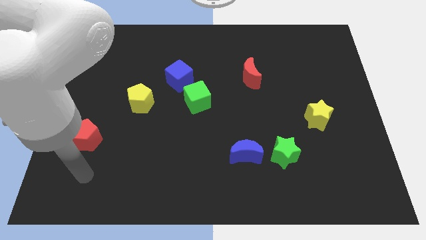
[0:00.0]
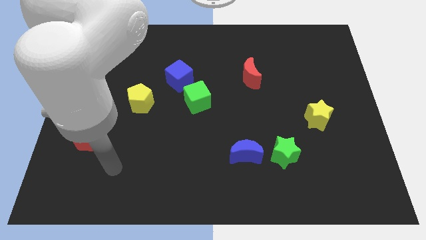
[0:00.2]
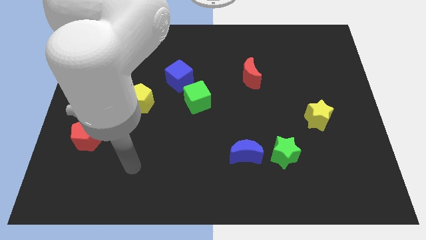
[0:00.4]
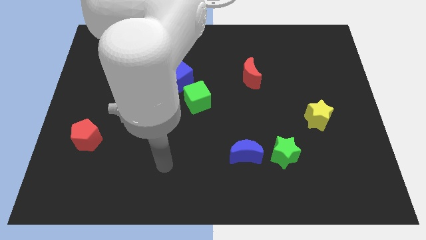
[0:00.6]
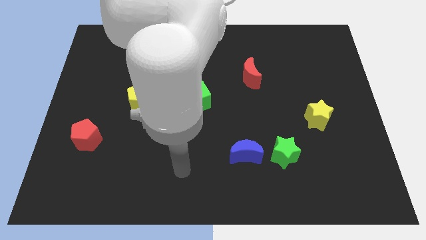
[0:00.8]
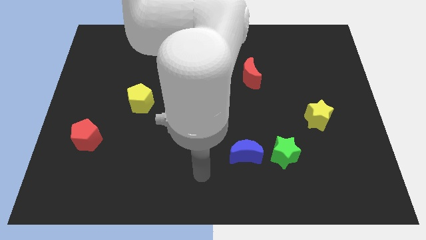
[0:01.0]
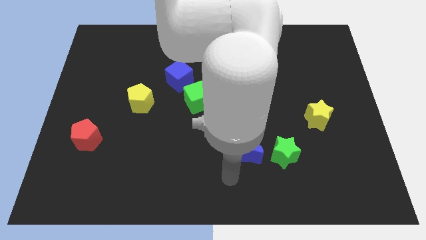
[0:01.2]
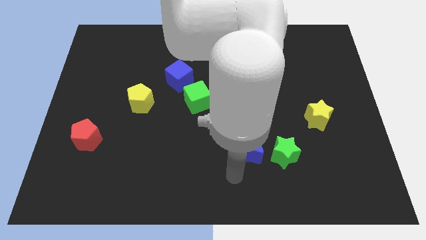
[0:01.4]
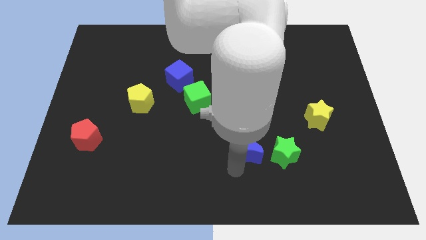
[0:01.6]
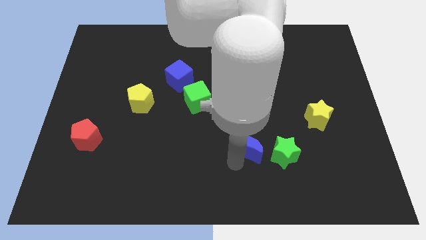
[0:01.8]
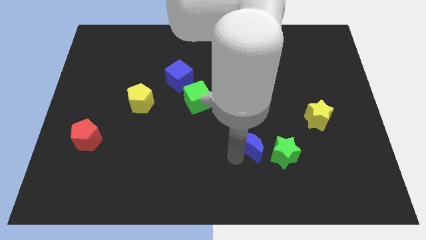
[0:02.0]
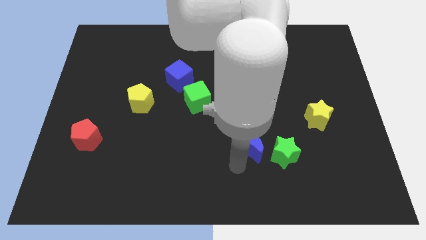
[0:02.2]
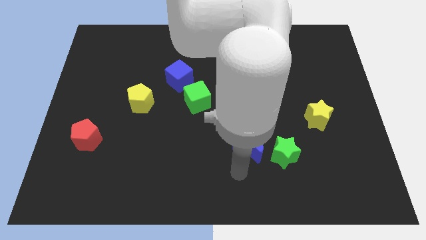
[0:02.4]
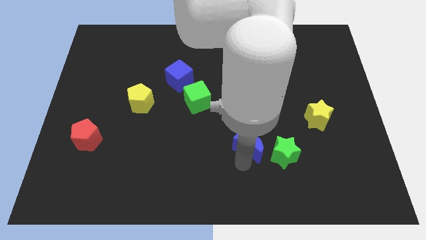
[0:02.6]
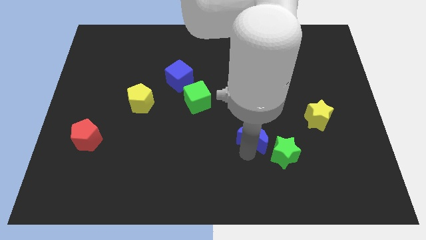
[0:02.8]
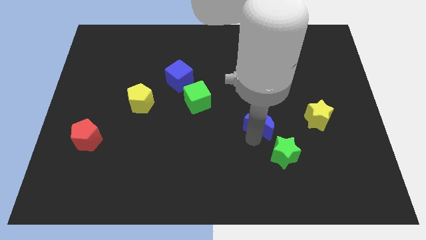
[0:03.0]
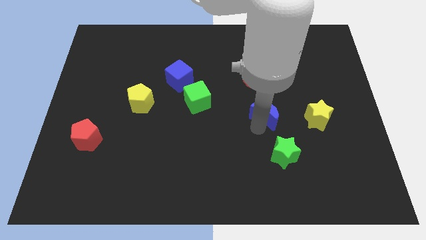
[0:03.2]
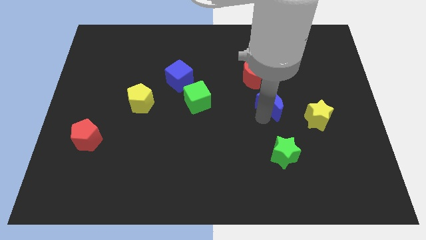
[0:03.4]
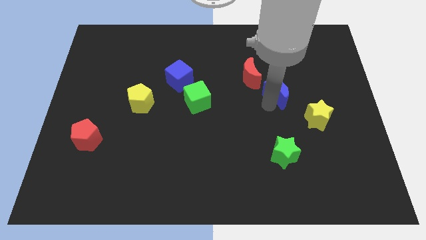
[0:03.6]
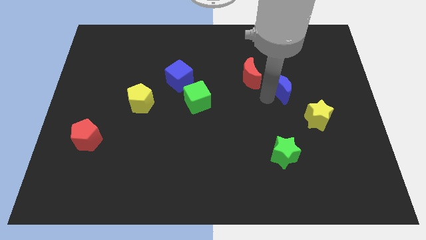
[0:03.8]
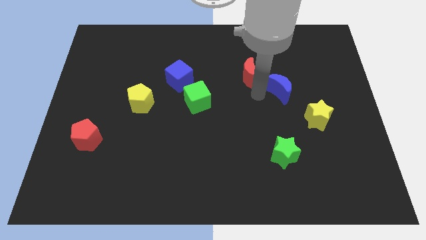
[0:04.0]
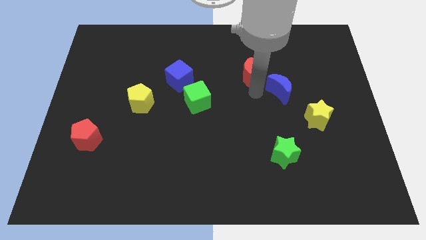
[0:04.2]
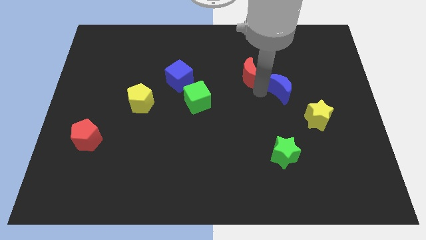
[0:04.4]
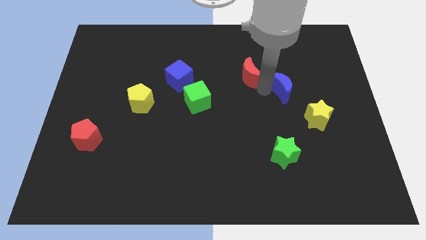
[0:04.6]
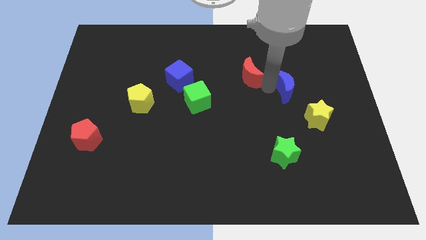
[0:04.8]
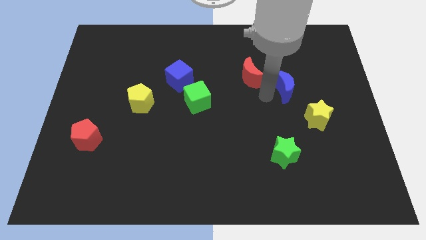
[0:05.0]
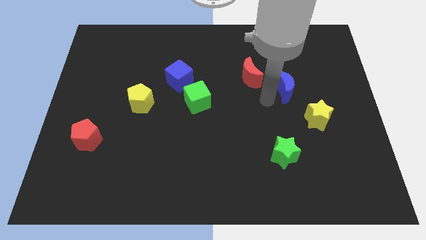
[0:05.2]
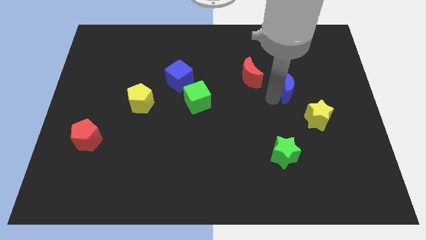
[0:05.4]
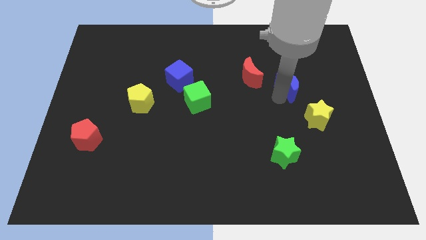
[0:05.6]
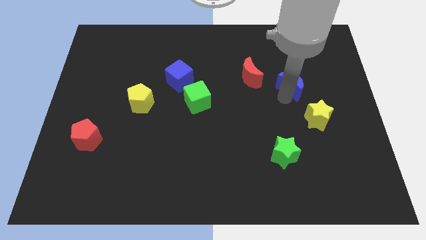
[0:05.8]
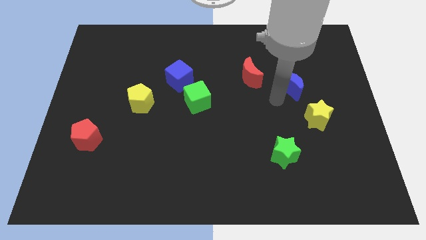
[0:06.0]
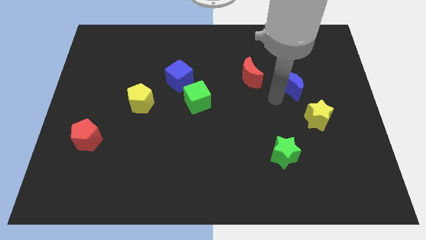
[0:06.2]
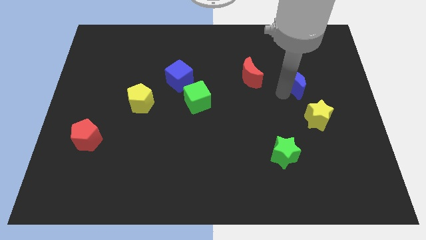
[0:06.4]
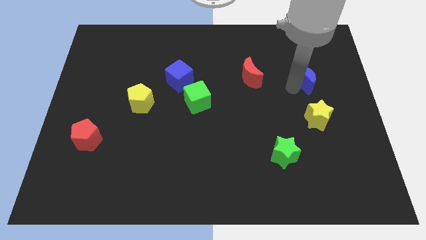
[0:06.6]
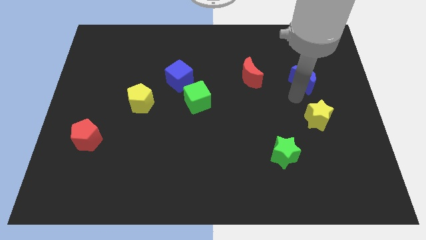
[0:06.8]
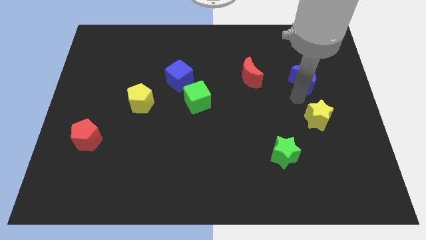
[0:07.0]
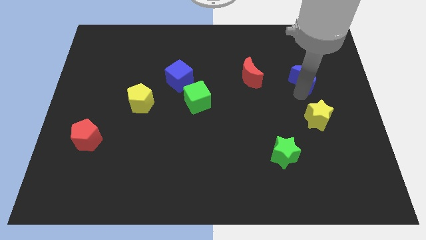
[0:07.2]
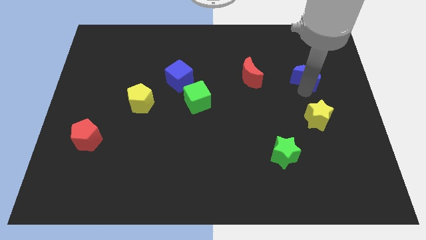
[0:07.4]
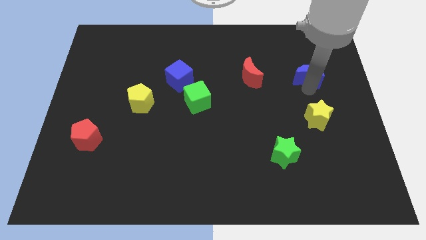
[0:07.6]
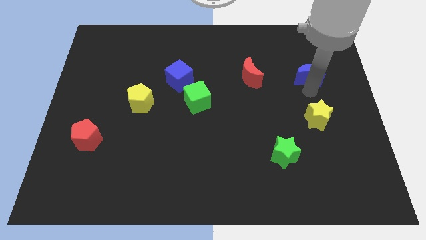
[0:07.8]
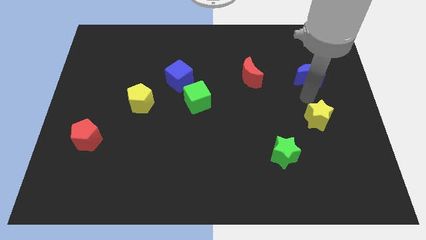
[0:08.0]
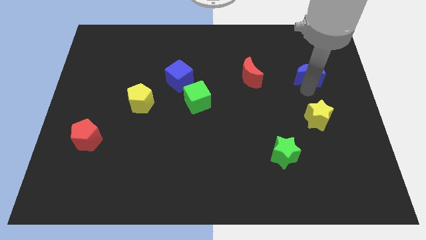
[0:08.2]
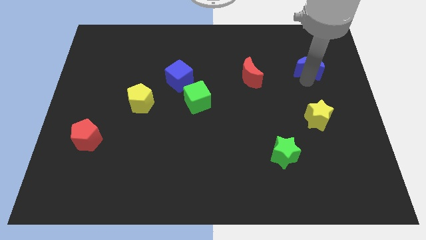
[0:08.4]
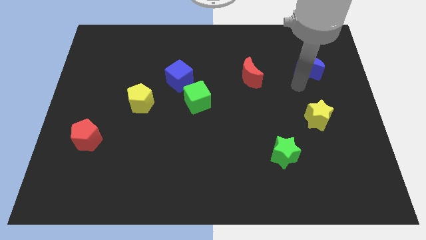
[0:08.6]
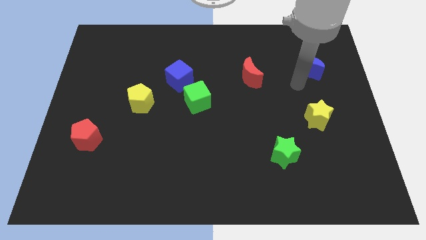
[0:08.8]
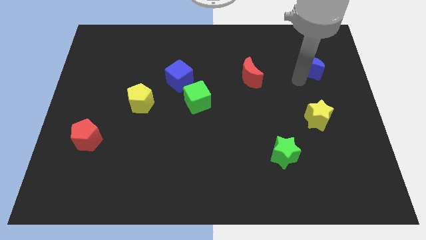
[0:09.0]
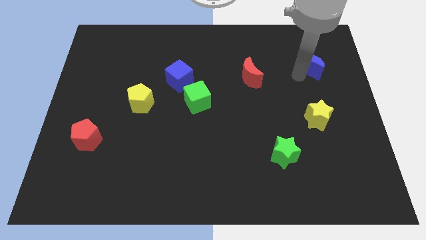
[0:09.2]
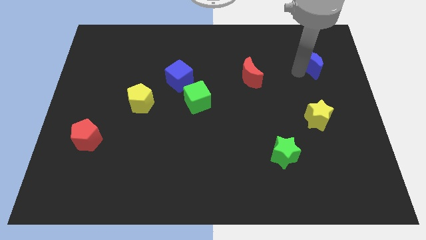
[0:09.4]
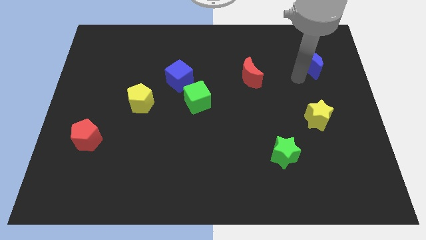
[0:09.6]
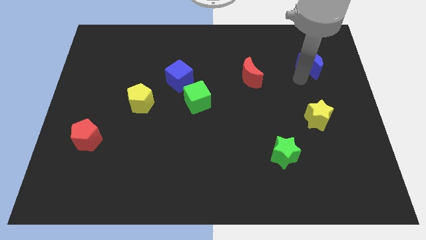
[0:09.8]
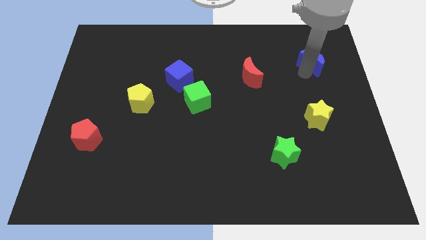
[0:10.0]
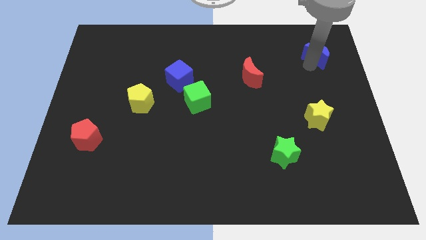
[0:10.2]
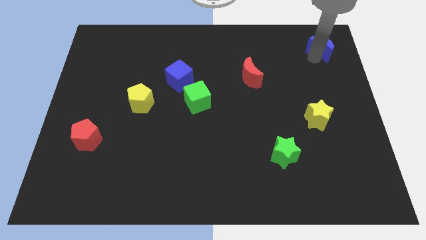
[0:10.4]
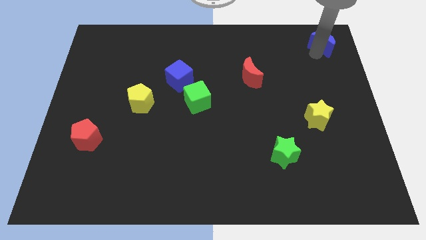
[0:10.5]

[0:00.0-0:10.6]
move the blue moon to the top right corner

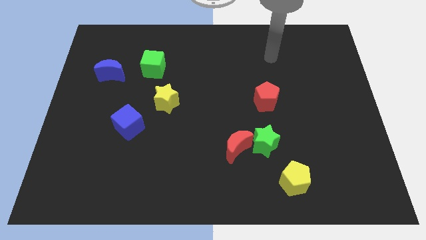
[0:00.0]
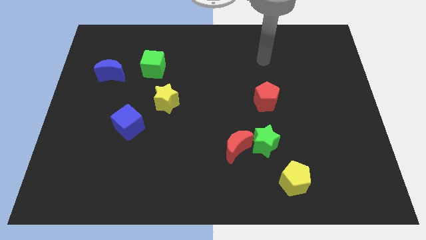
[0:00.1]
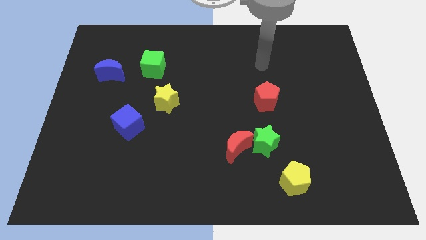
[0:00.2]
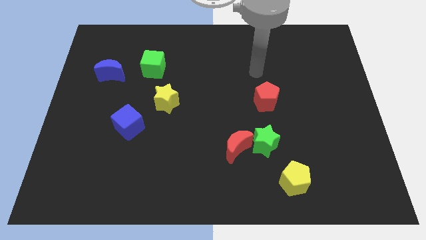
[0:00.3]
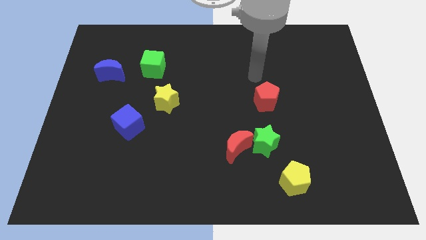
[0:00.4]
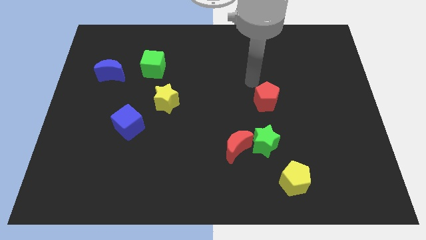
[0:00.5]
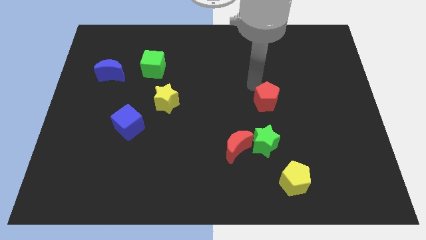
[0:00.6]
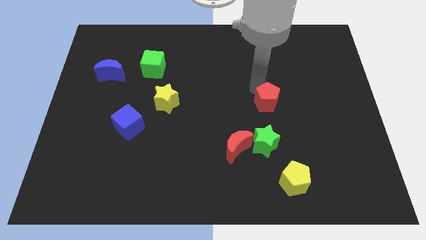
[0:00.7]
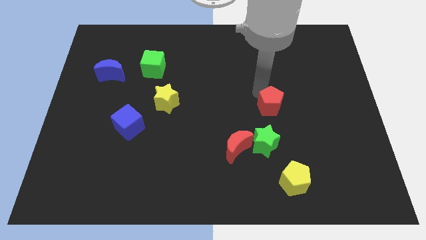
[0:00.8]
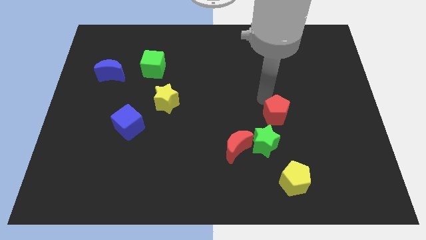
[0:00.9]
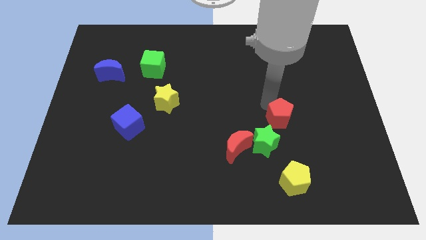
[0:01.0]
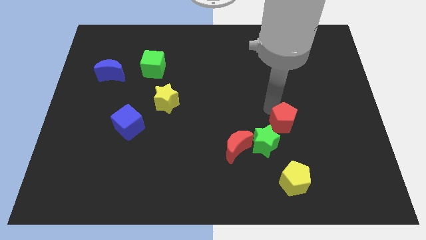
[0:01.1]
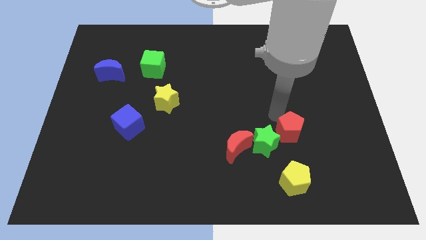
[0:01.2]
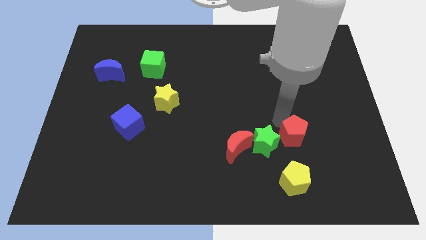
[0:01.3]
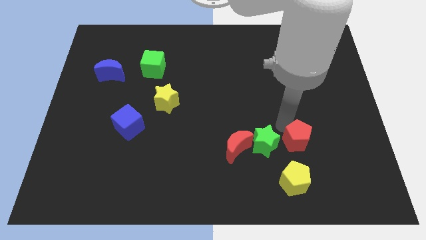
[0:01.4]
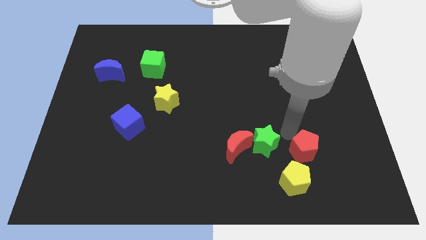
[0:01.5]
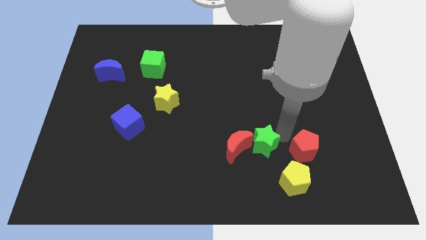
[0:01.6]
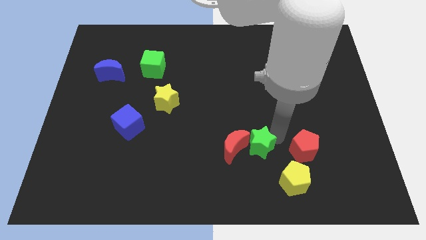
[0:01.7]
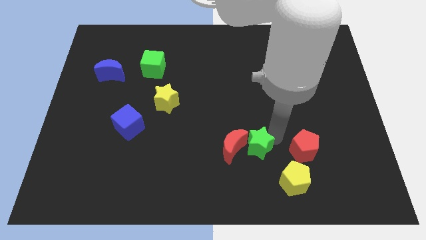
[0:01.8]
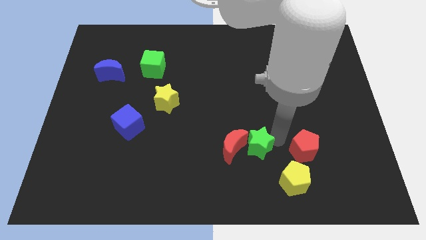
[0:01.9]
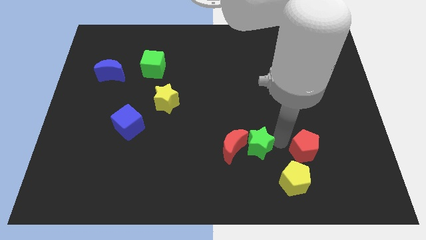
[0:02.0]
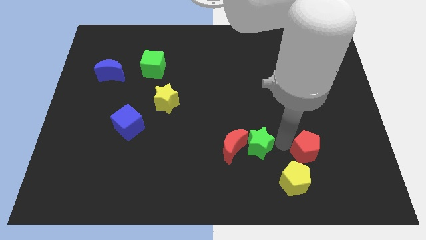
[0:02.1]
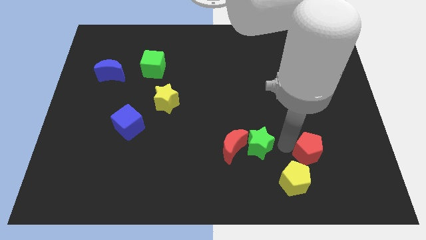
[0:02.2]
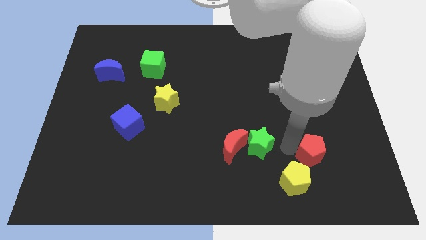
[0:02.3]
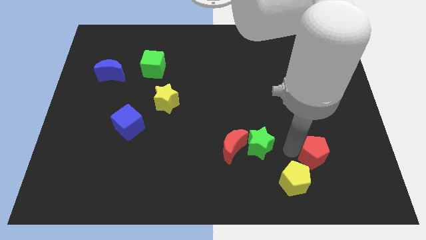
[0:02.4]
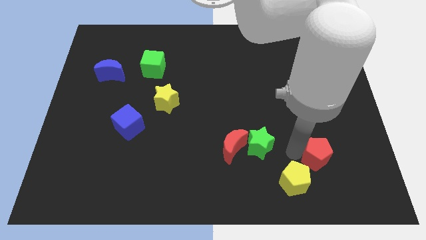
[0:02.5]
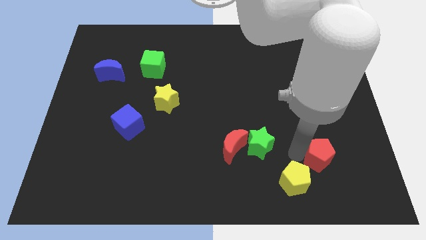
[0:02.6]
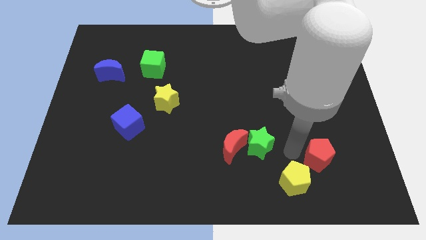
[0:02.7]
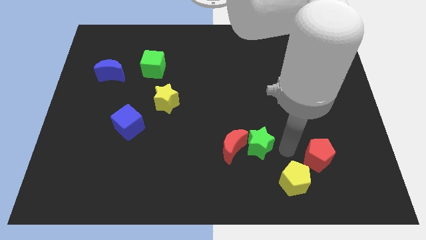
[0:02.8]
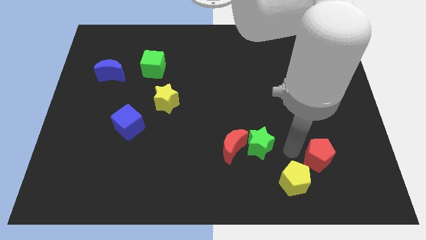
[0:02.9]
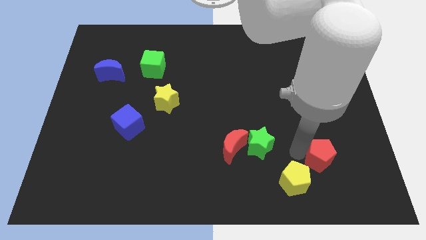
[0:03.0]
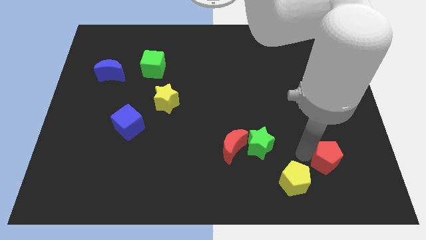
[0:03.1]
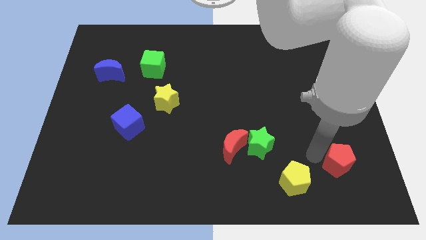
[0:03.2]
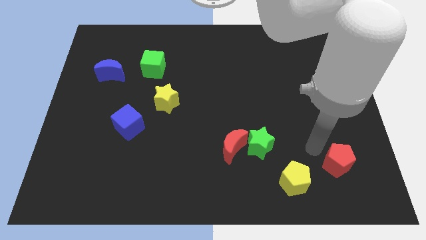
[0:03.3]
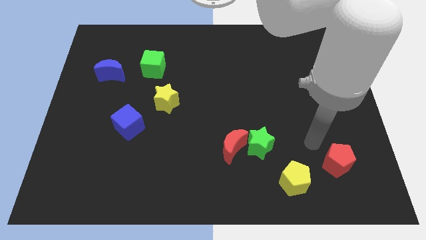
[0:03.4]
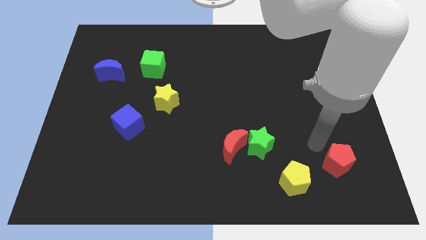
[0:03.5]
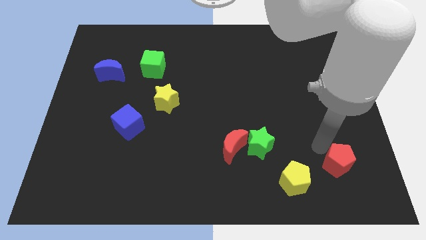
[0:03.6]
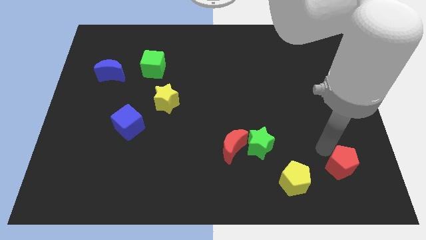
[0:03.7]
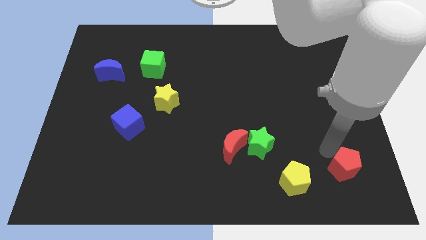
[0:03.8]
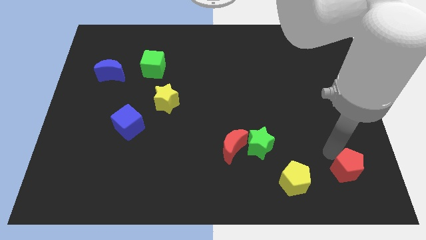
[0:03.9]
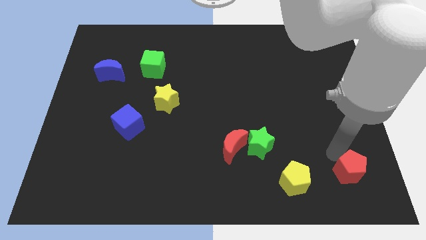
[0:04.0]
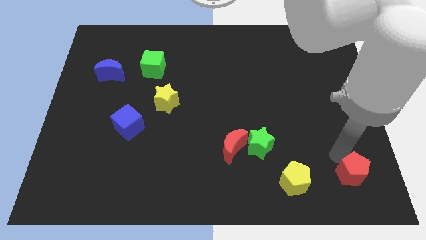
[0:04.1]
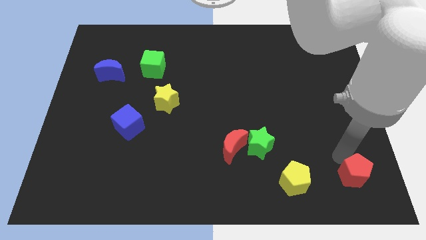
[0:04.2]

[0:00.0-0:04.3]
push the red pentagon to the bottom right
